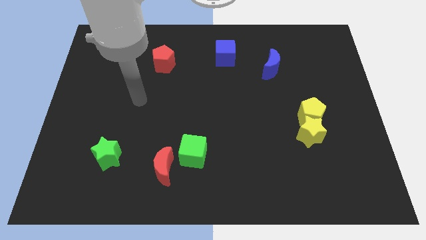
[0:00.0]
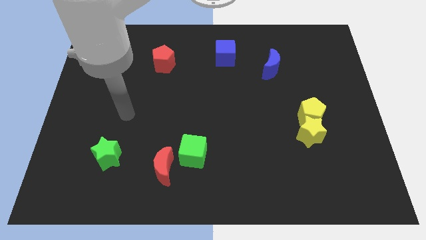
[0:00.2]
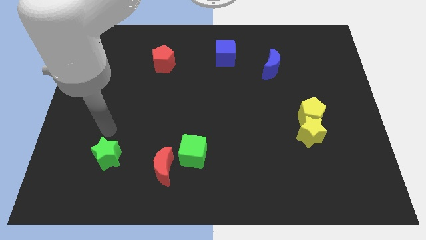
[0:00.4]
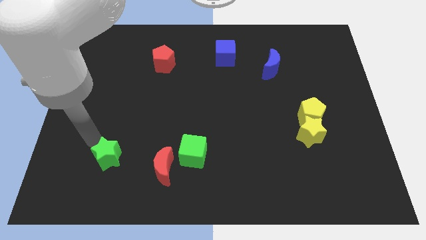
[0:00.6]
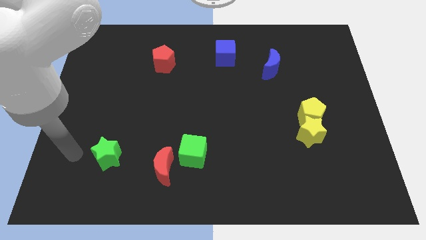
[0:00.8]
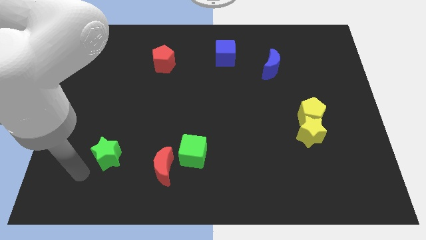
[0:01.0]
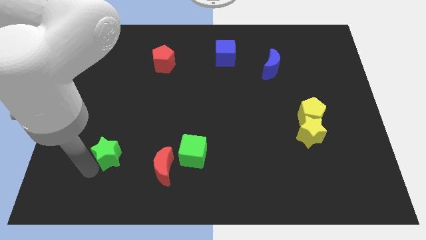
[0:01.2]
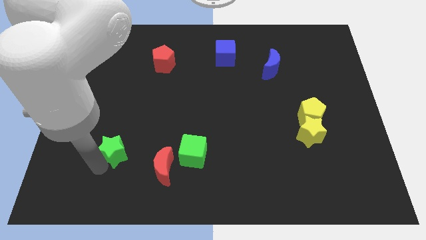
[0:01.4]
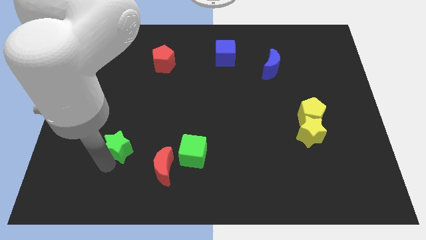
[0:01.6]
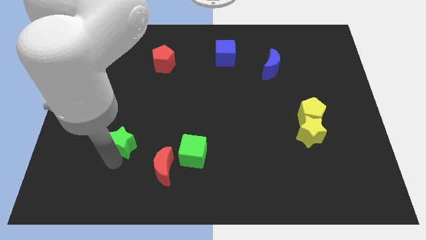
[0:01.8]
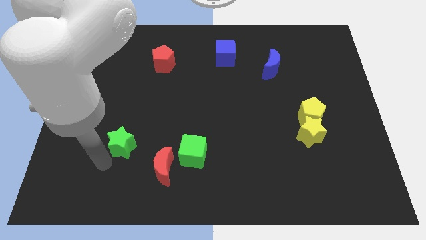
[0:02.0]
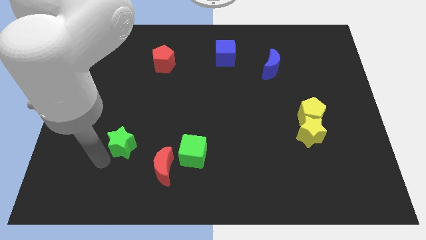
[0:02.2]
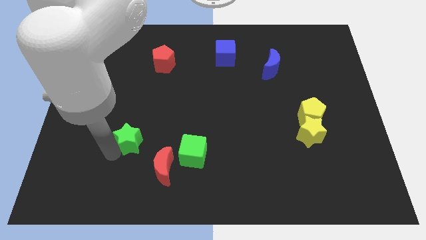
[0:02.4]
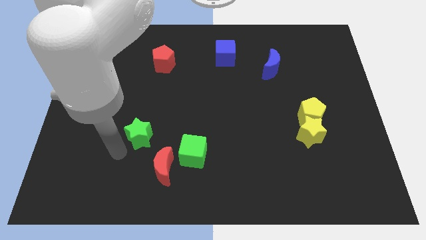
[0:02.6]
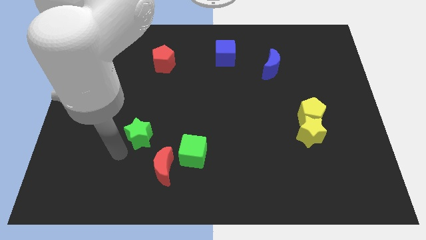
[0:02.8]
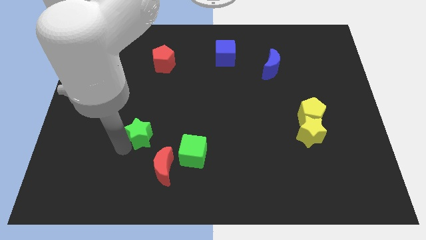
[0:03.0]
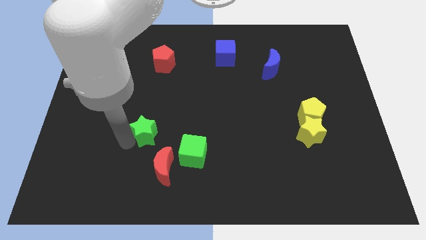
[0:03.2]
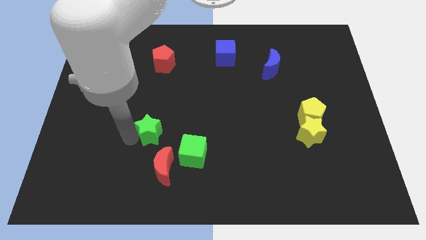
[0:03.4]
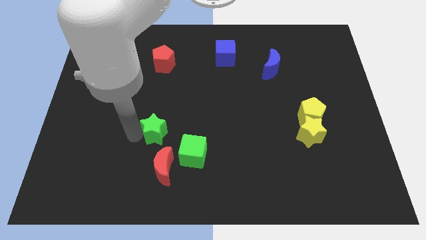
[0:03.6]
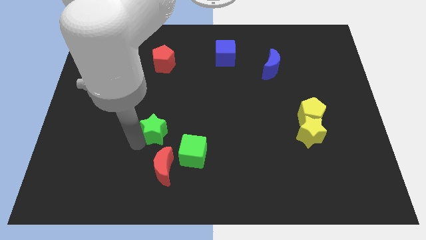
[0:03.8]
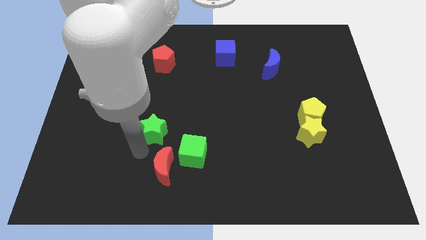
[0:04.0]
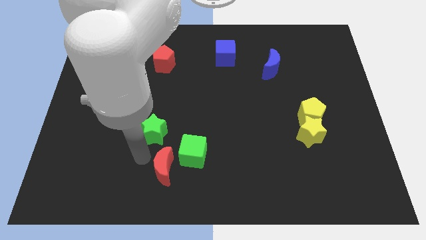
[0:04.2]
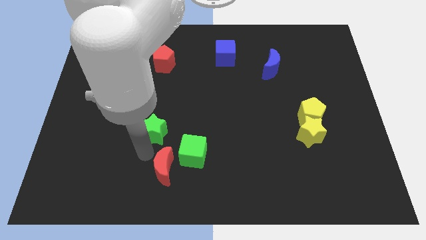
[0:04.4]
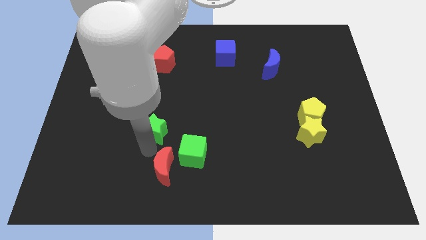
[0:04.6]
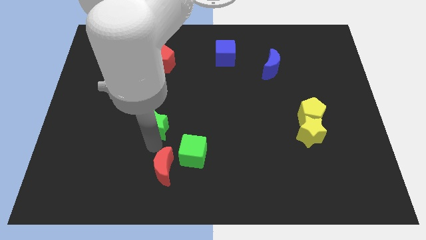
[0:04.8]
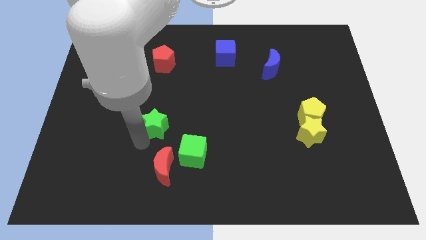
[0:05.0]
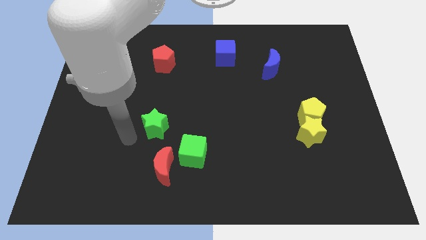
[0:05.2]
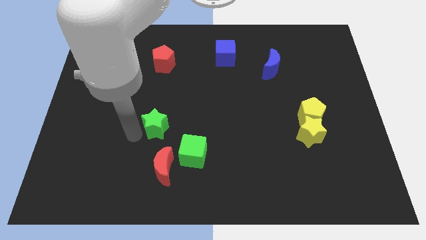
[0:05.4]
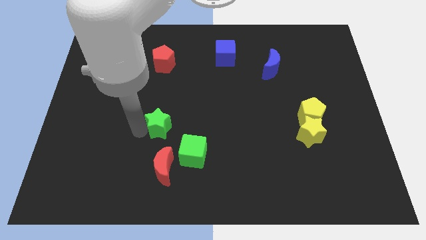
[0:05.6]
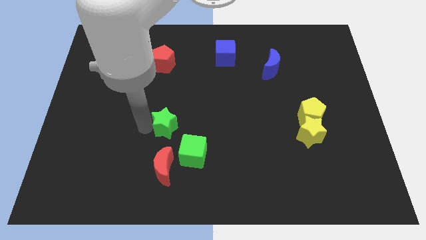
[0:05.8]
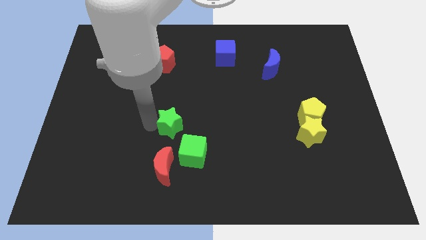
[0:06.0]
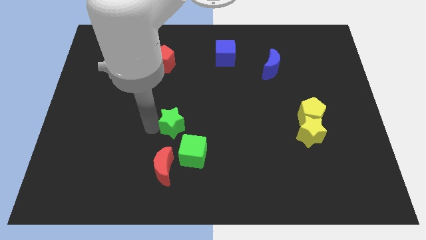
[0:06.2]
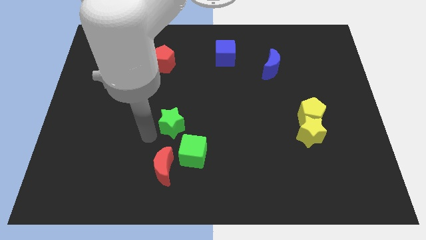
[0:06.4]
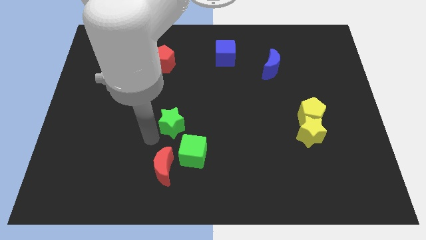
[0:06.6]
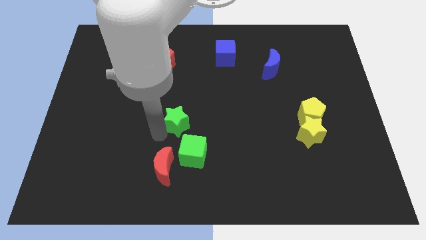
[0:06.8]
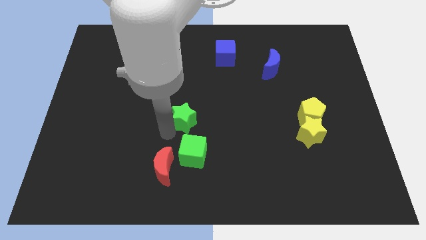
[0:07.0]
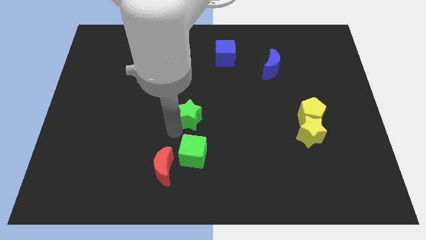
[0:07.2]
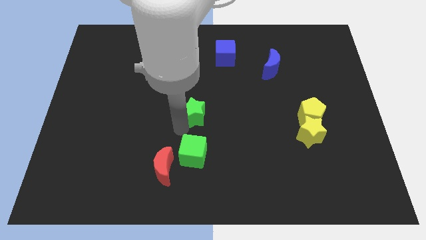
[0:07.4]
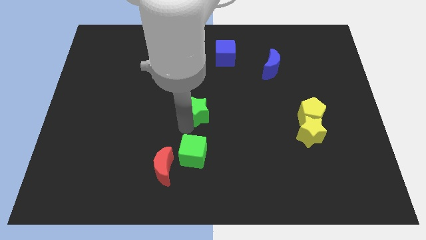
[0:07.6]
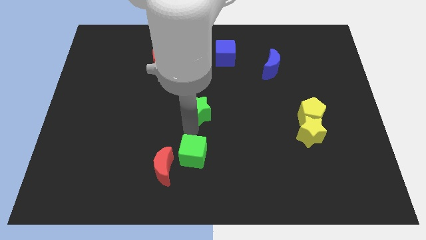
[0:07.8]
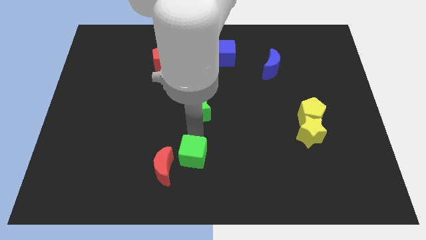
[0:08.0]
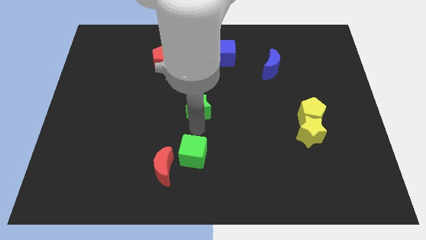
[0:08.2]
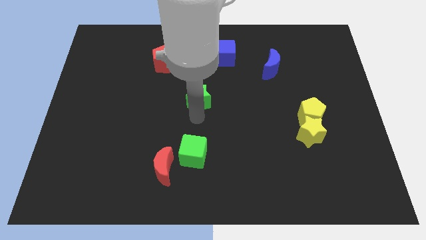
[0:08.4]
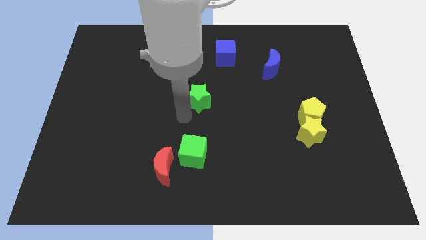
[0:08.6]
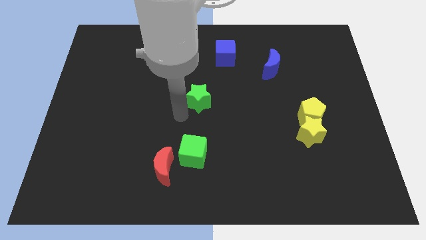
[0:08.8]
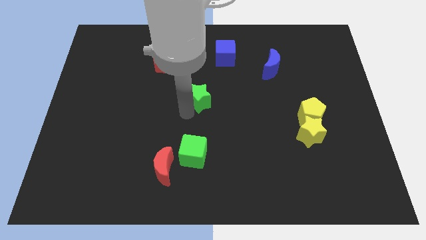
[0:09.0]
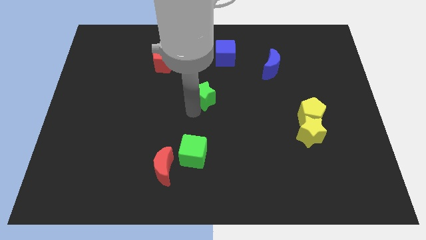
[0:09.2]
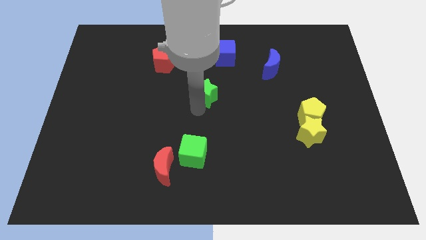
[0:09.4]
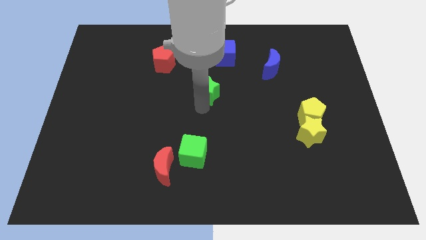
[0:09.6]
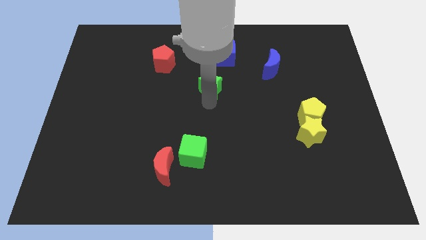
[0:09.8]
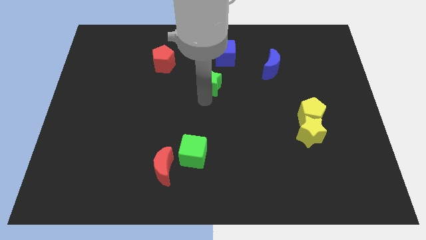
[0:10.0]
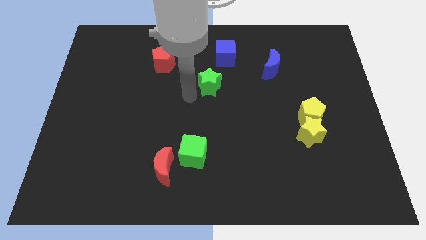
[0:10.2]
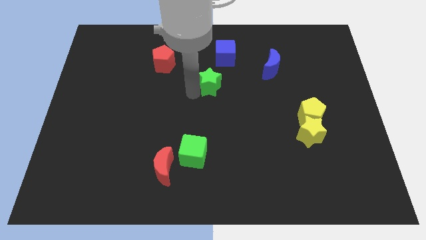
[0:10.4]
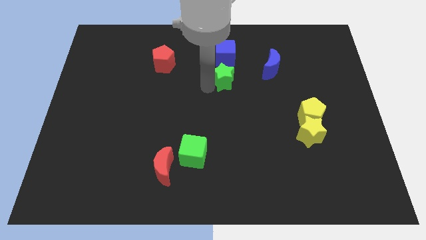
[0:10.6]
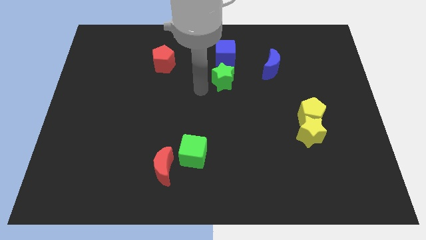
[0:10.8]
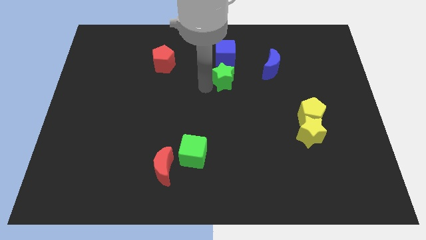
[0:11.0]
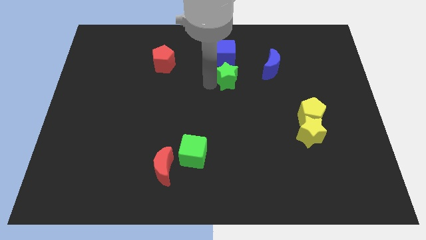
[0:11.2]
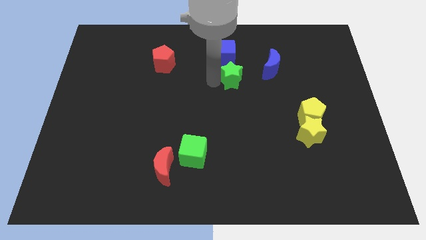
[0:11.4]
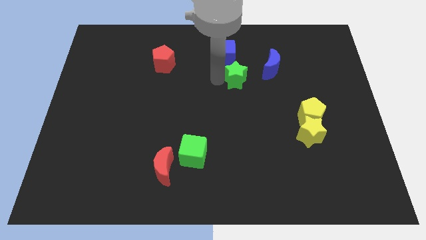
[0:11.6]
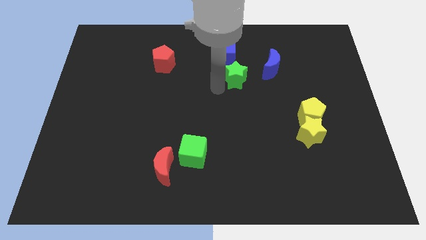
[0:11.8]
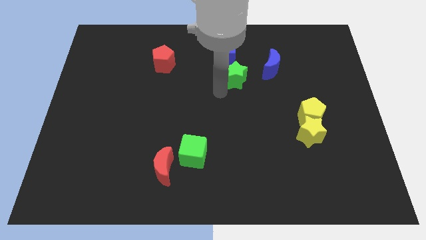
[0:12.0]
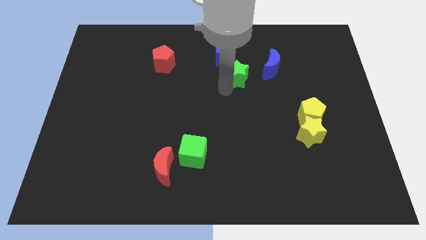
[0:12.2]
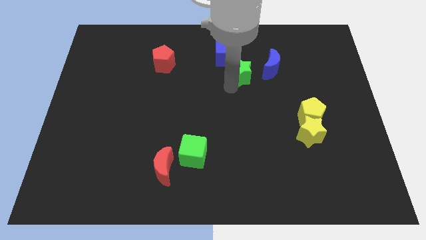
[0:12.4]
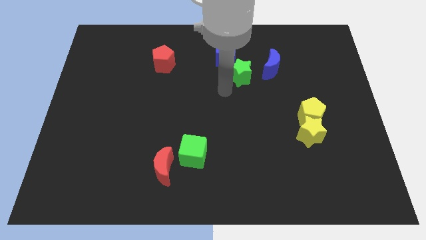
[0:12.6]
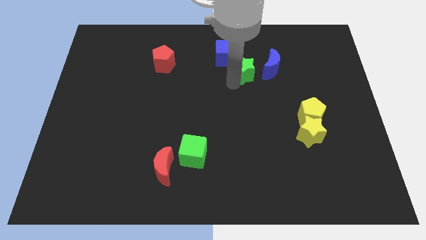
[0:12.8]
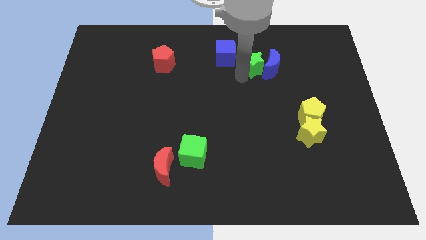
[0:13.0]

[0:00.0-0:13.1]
push the green star right of the blue cube
